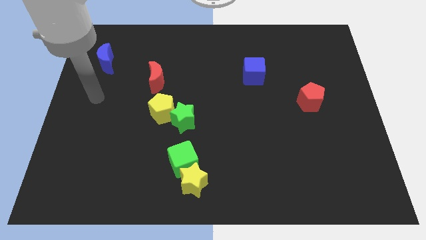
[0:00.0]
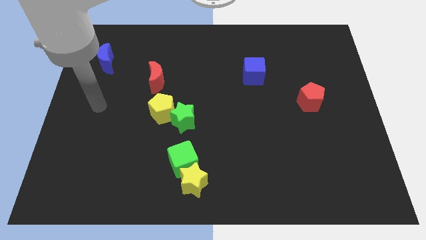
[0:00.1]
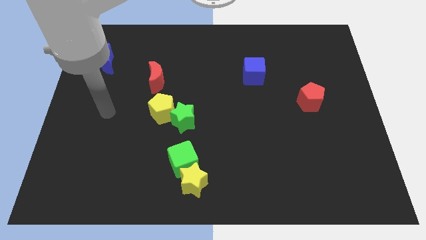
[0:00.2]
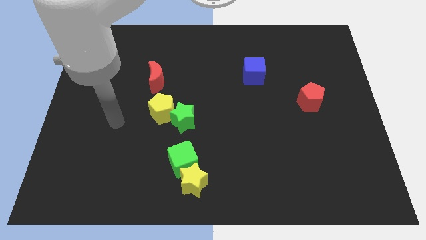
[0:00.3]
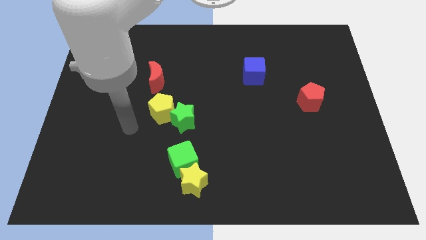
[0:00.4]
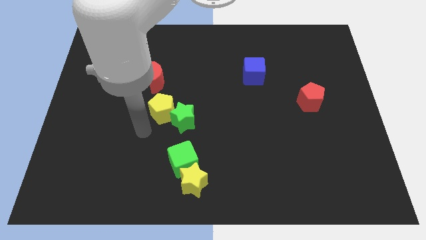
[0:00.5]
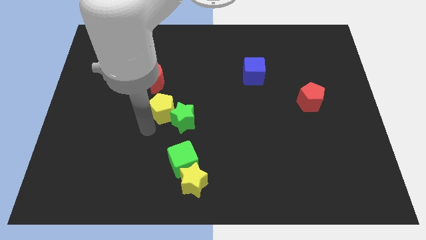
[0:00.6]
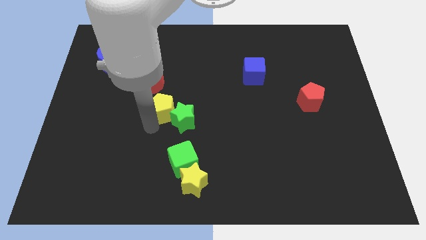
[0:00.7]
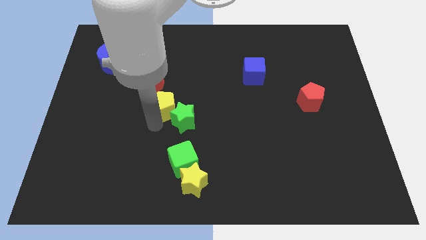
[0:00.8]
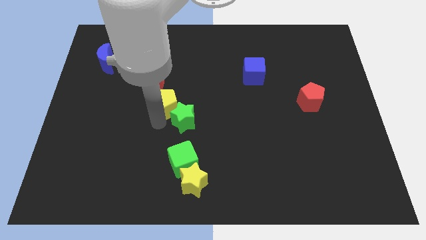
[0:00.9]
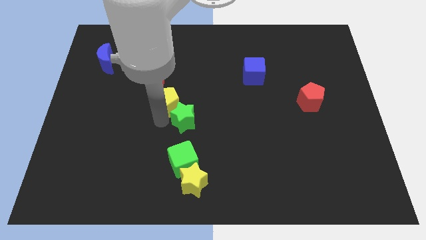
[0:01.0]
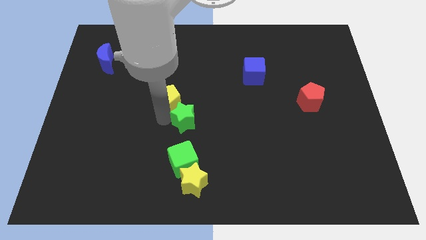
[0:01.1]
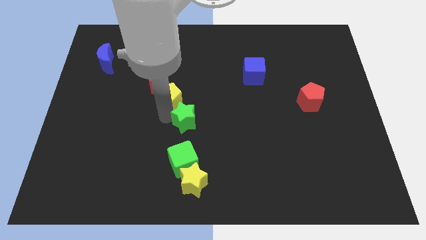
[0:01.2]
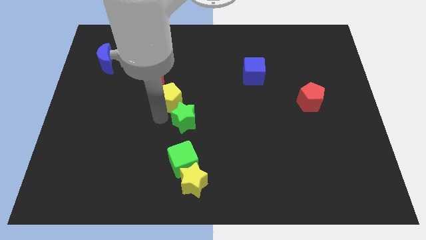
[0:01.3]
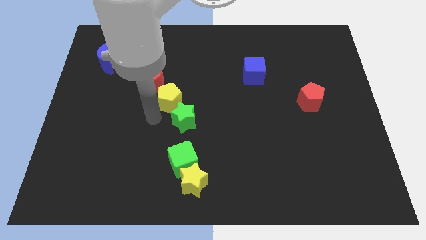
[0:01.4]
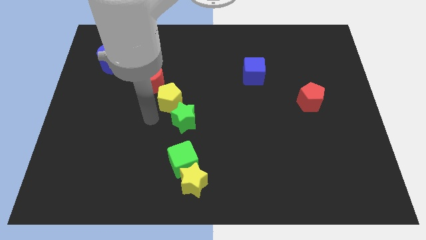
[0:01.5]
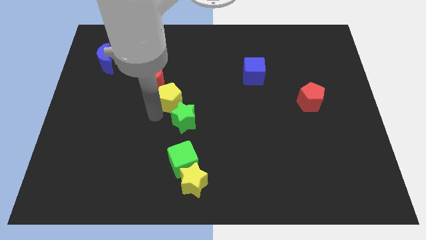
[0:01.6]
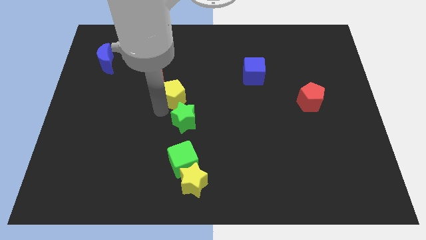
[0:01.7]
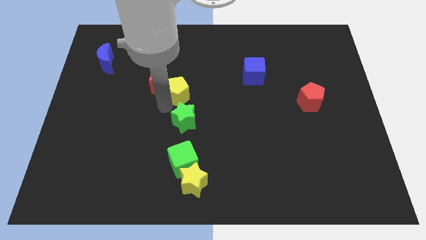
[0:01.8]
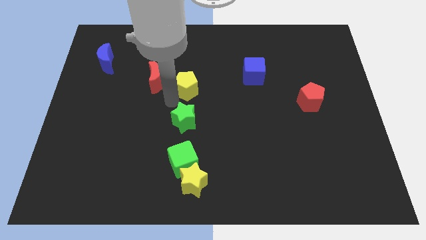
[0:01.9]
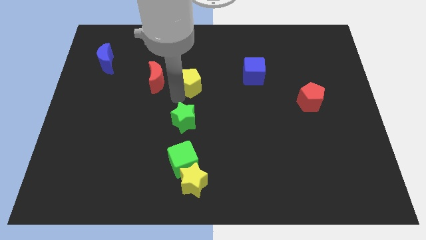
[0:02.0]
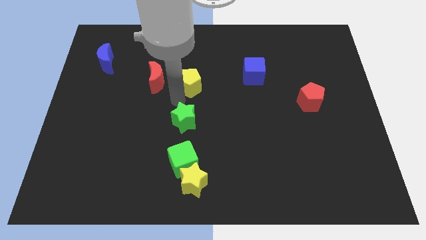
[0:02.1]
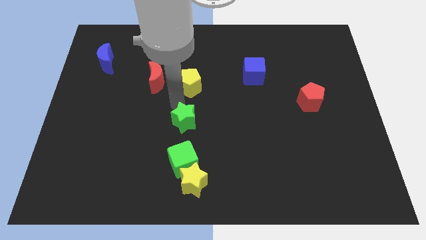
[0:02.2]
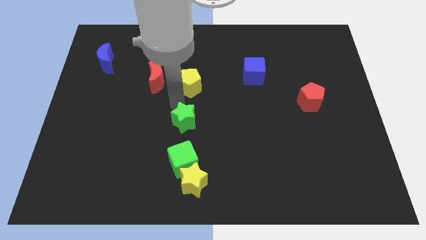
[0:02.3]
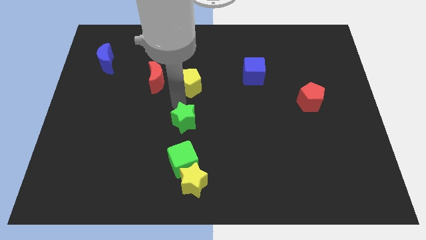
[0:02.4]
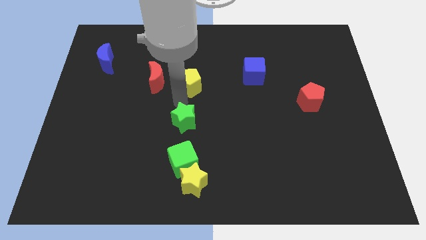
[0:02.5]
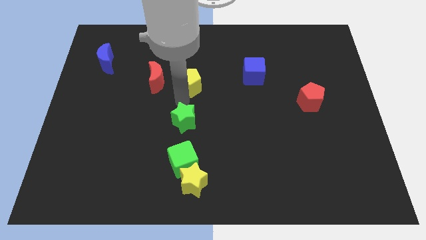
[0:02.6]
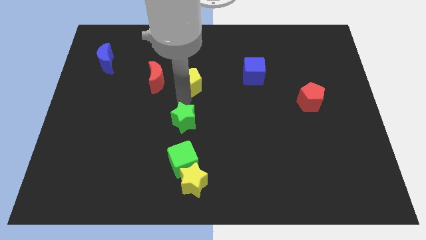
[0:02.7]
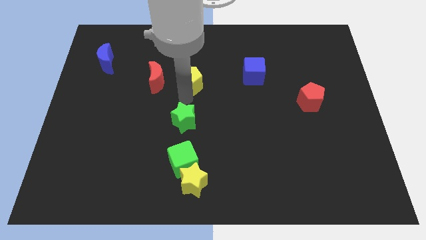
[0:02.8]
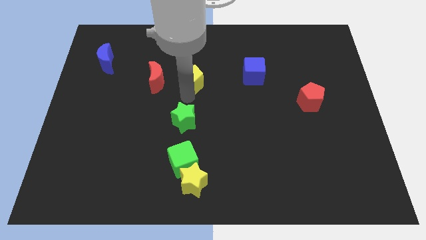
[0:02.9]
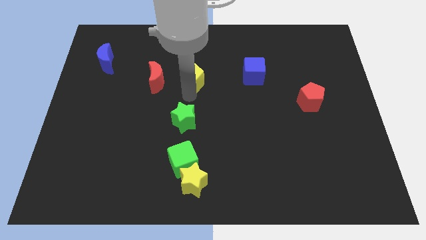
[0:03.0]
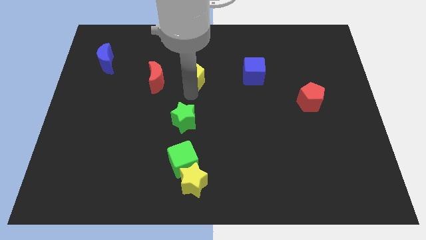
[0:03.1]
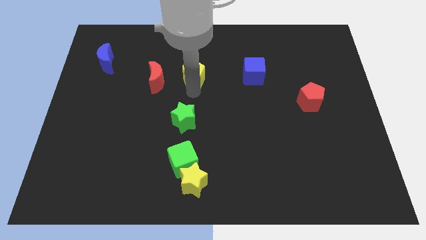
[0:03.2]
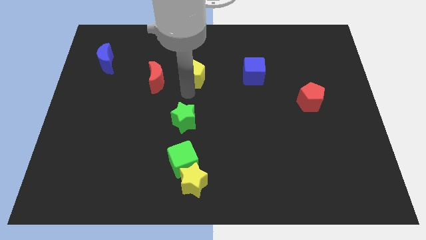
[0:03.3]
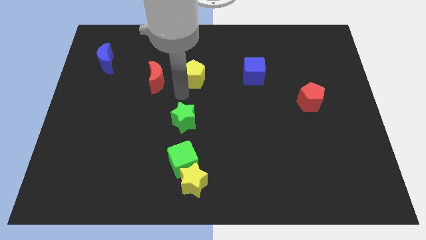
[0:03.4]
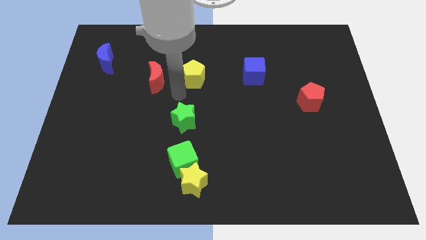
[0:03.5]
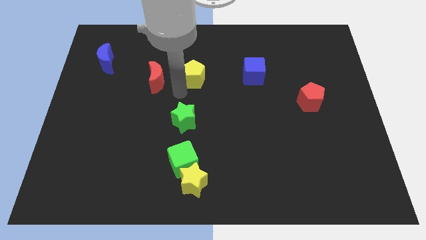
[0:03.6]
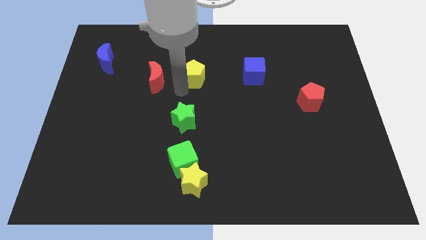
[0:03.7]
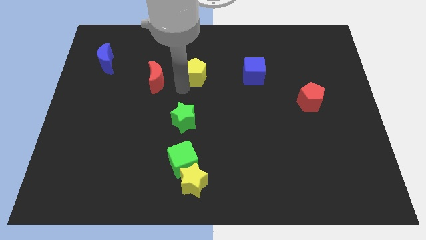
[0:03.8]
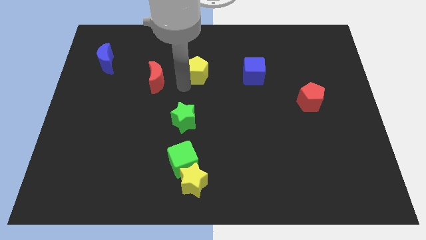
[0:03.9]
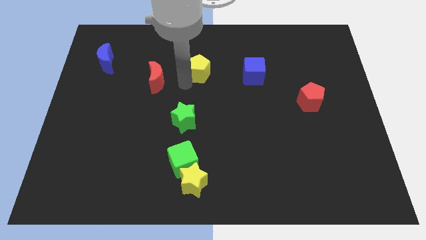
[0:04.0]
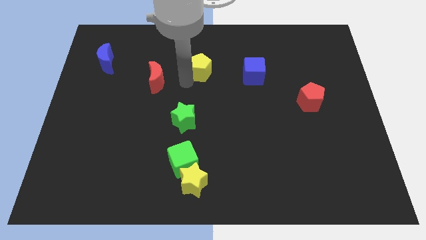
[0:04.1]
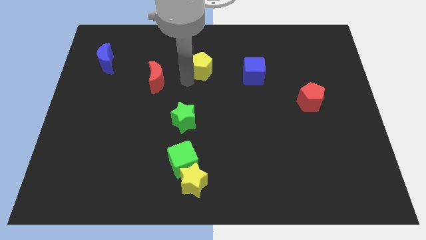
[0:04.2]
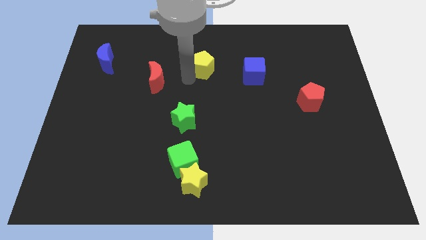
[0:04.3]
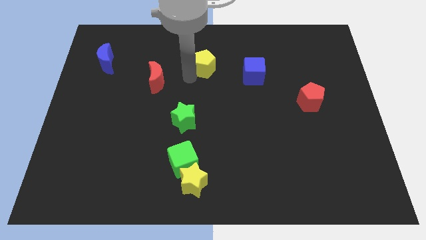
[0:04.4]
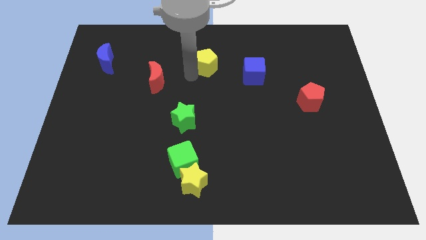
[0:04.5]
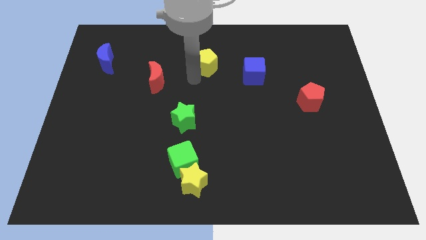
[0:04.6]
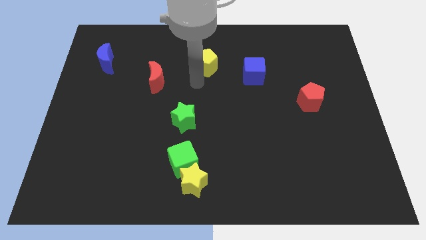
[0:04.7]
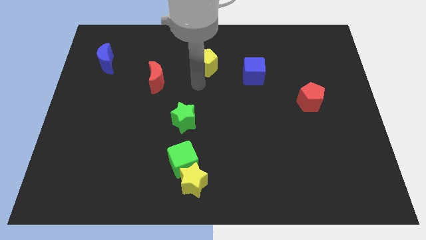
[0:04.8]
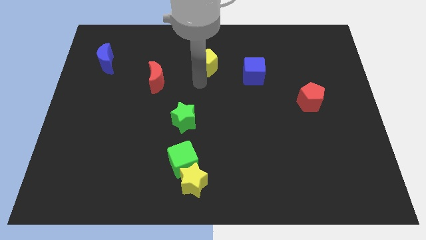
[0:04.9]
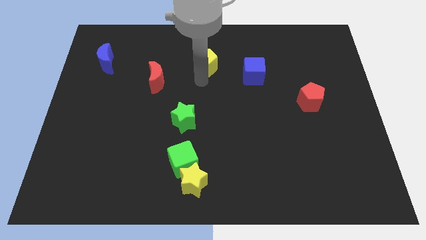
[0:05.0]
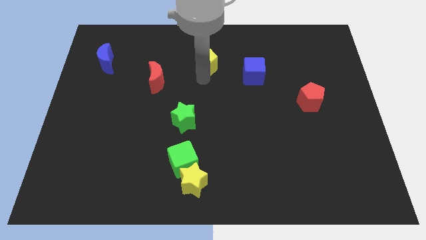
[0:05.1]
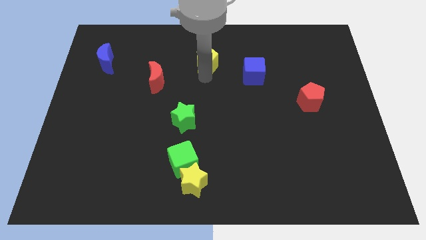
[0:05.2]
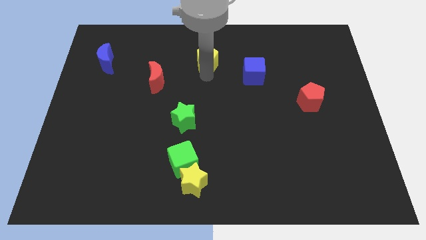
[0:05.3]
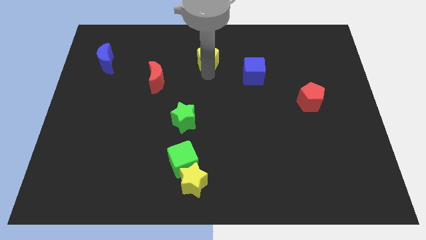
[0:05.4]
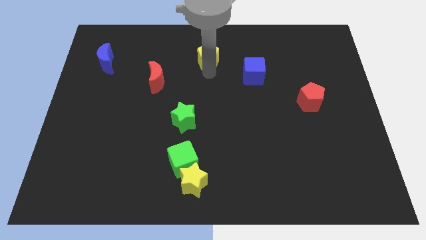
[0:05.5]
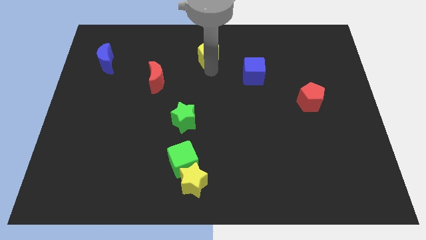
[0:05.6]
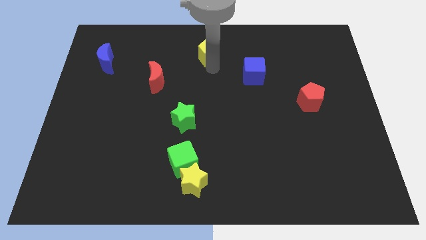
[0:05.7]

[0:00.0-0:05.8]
put the yellow pentagon to the top side
